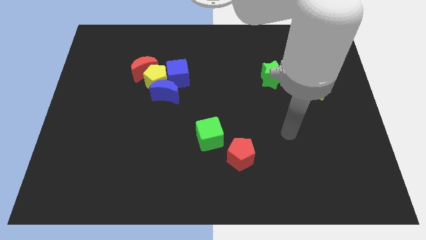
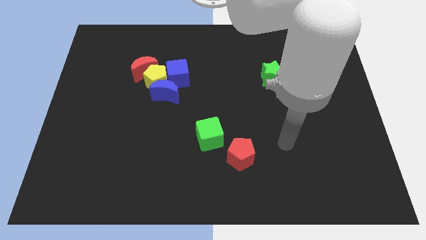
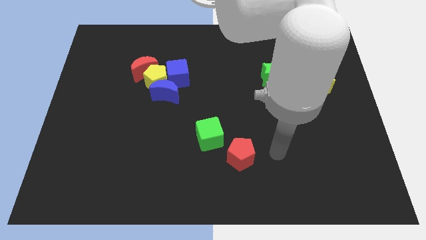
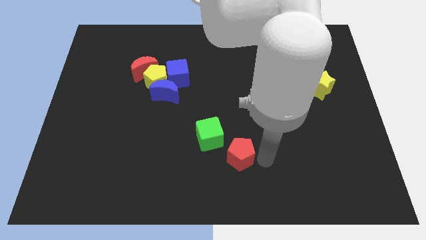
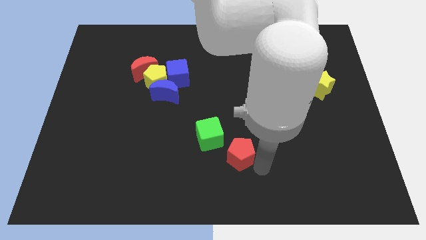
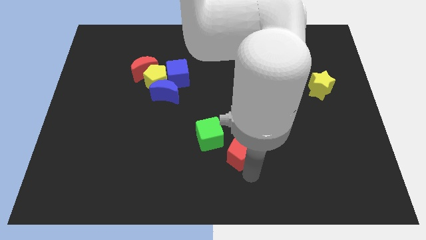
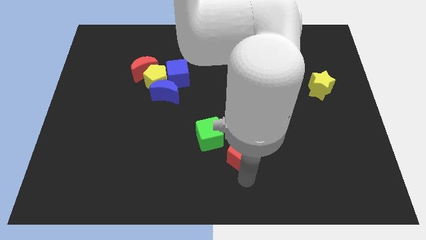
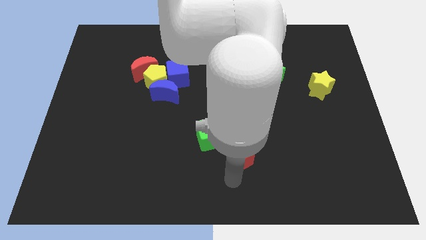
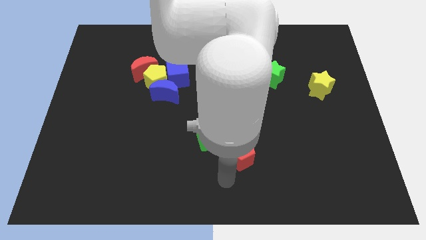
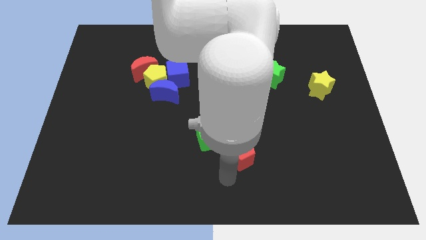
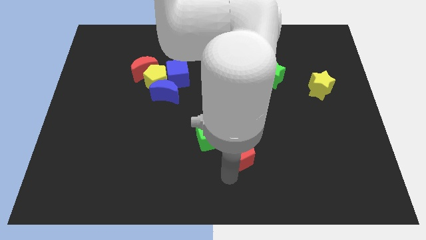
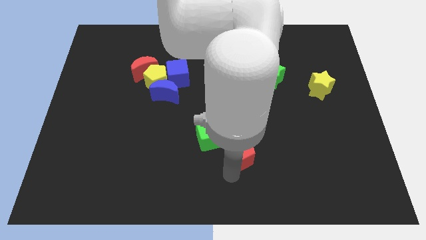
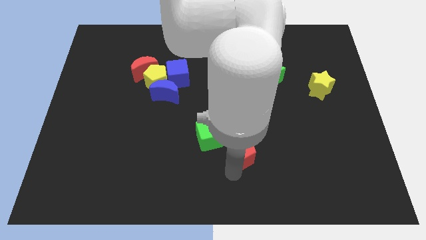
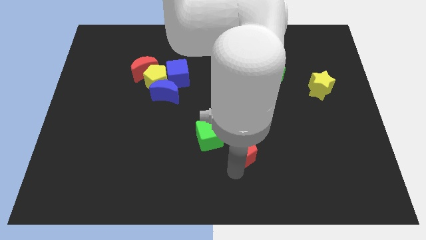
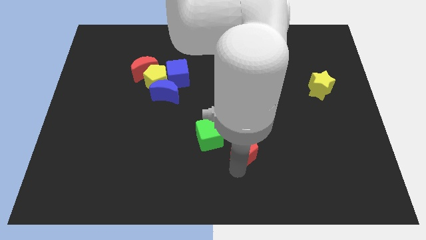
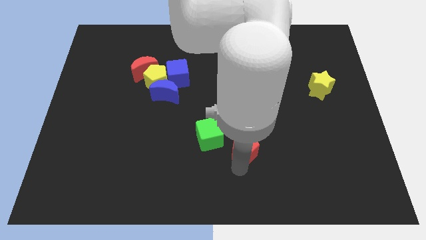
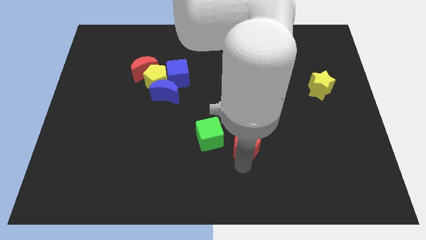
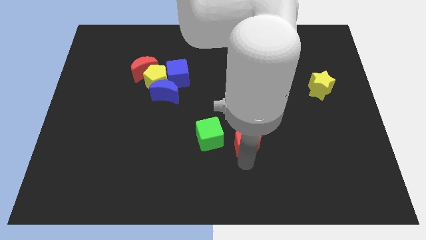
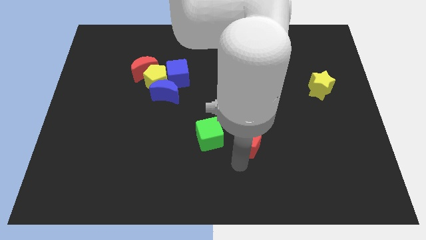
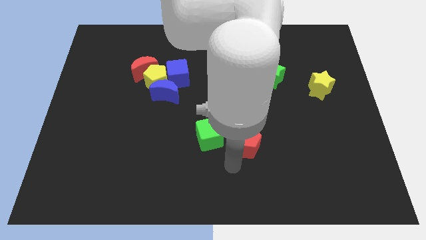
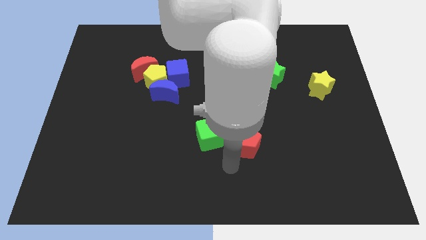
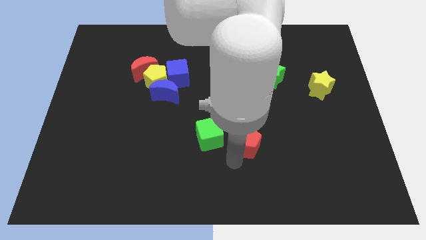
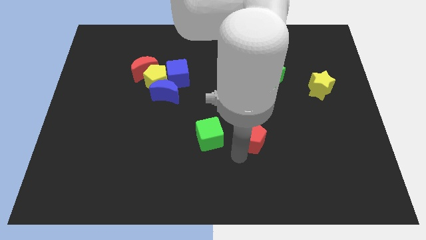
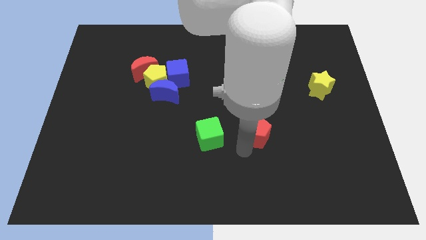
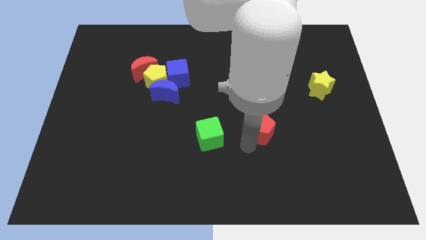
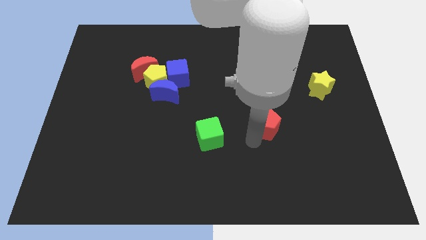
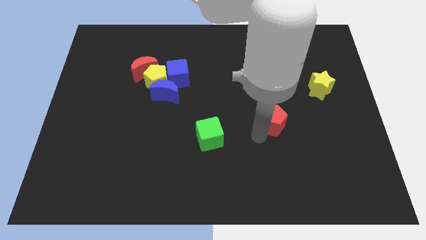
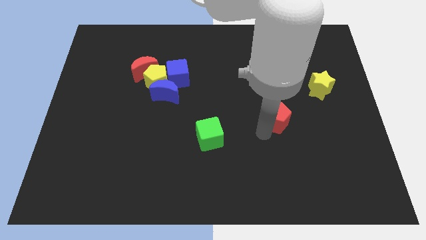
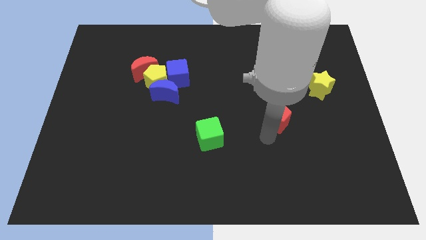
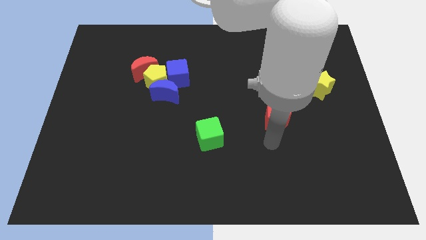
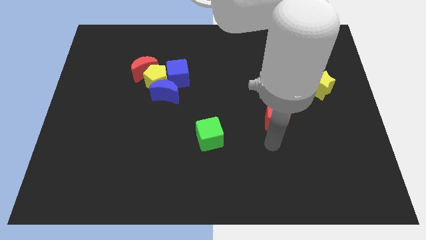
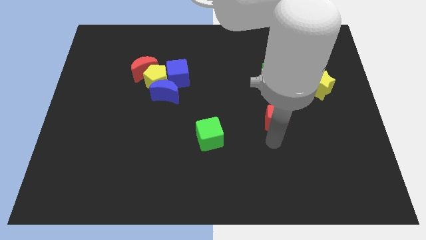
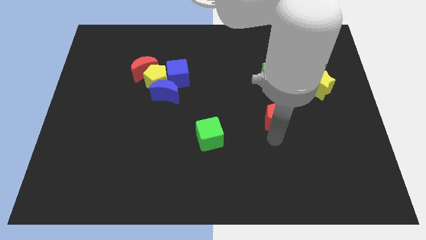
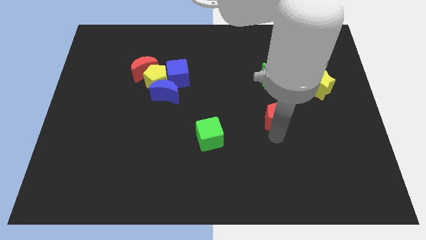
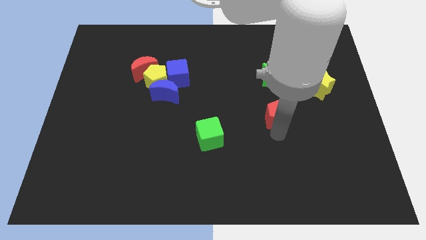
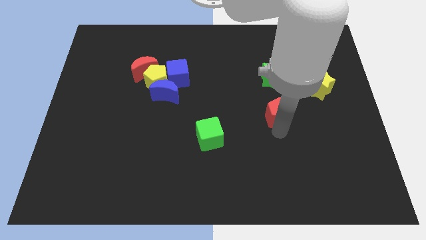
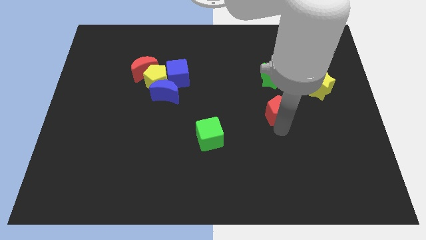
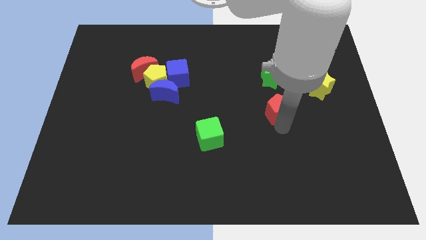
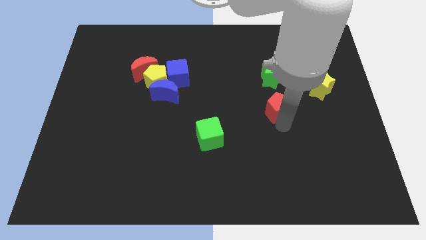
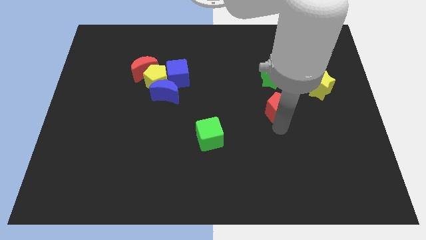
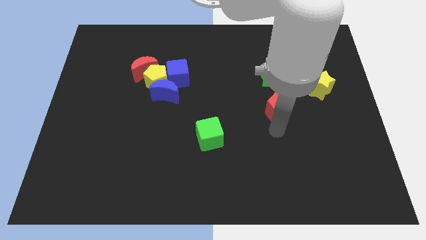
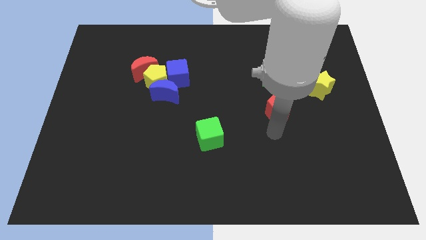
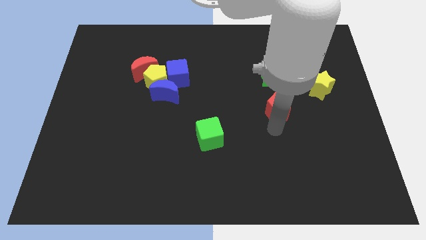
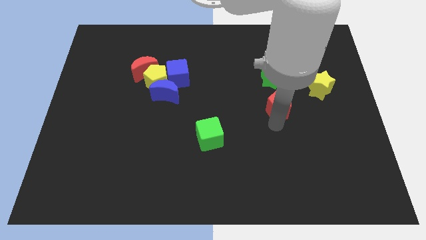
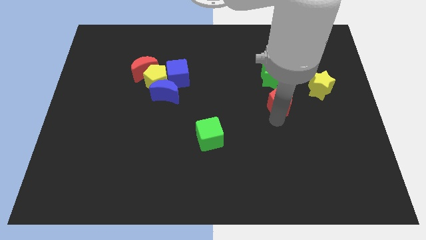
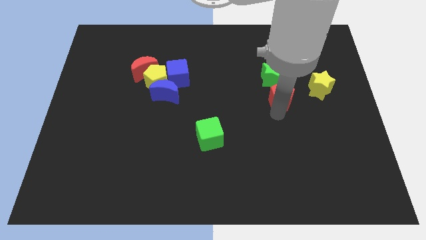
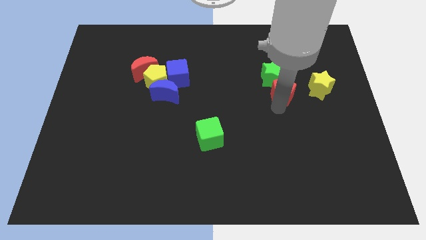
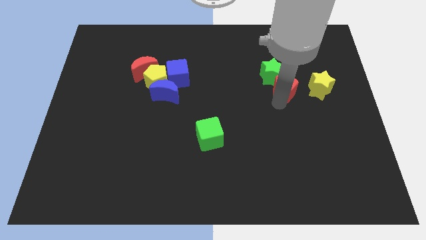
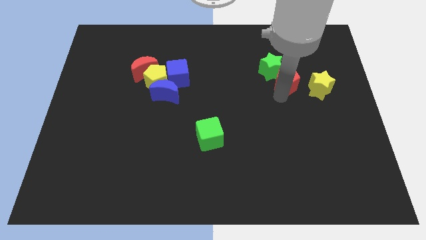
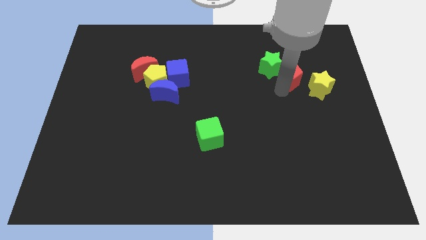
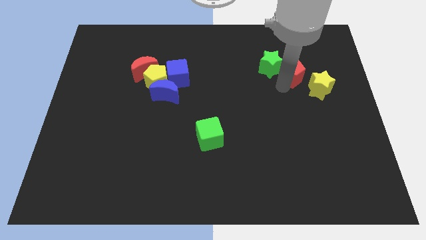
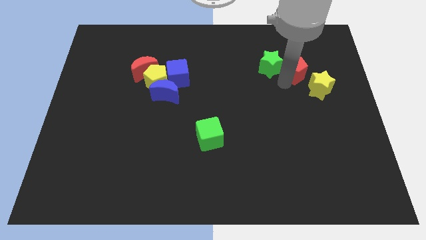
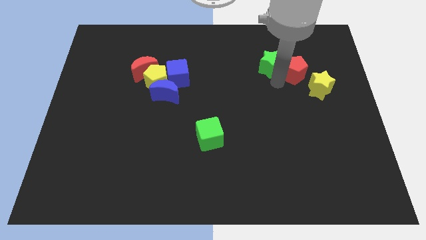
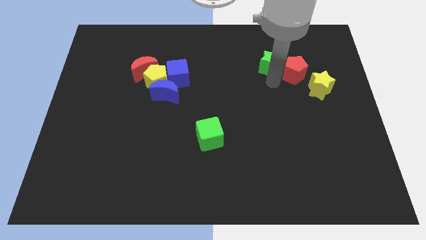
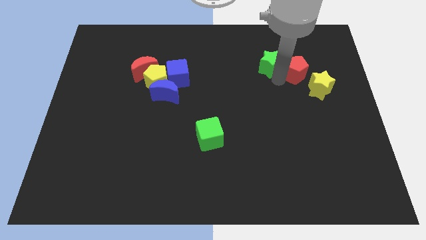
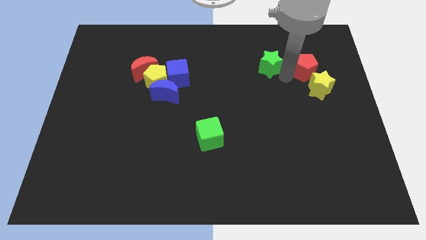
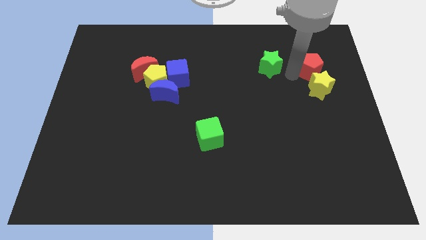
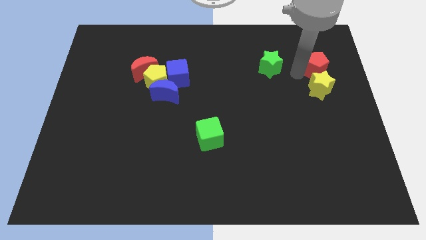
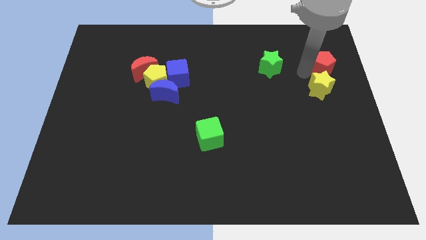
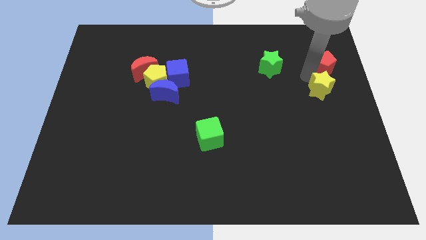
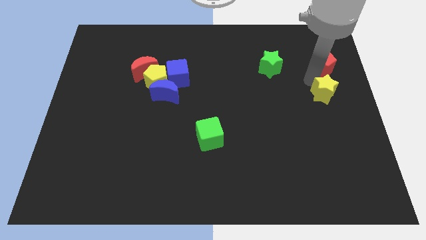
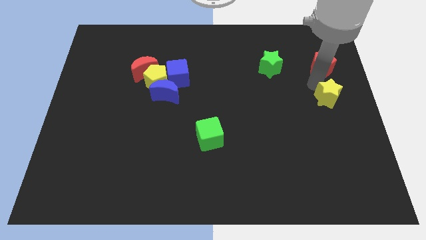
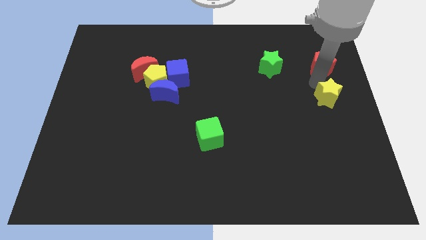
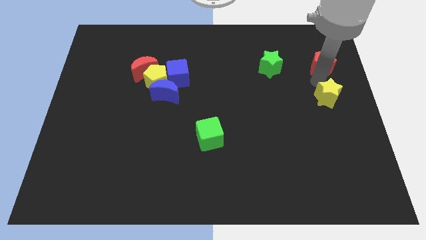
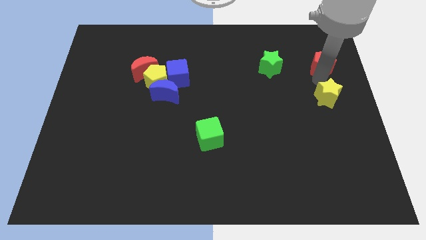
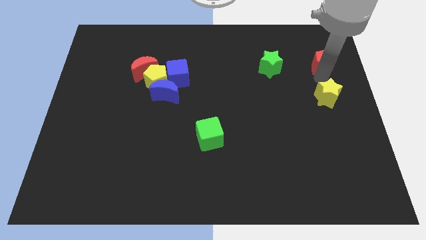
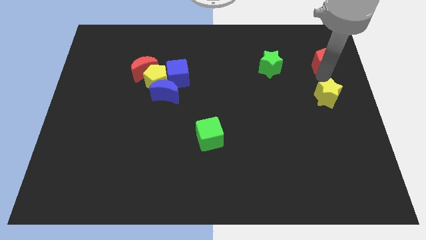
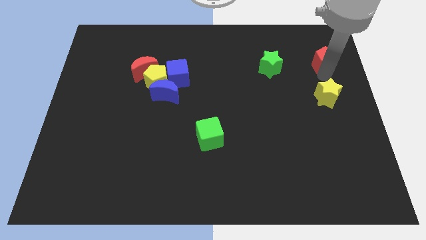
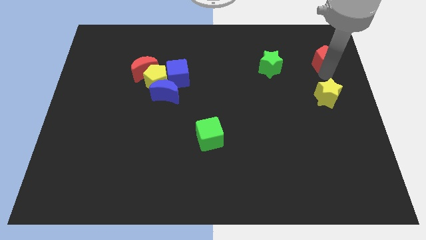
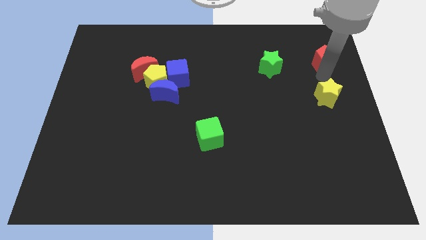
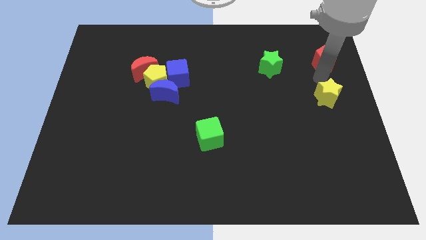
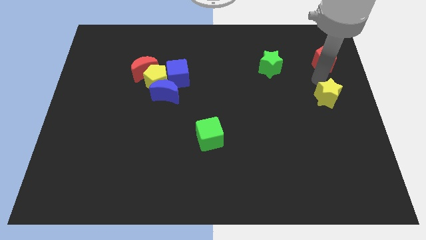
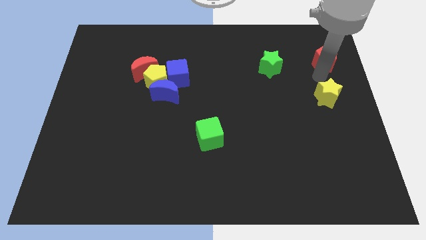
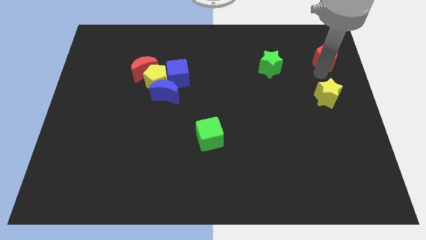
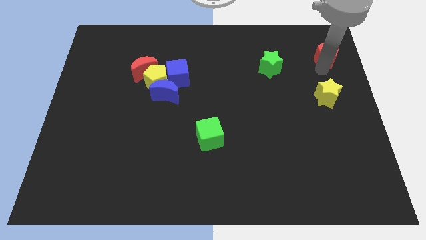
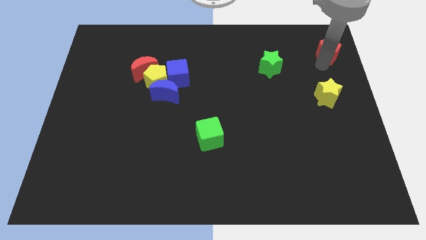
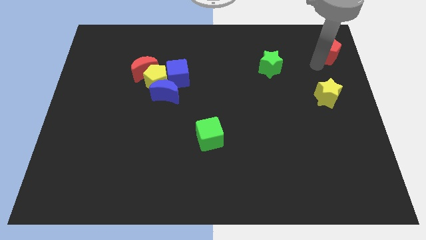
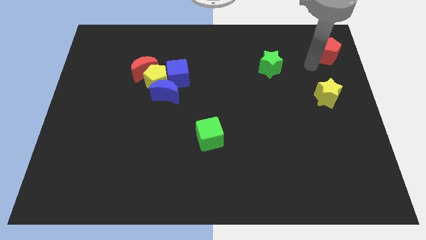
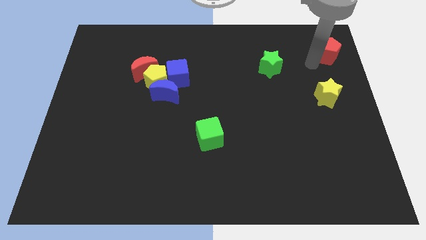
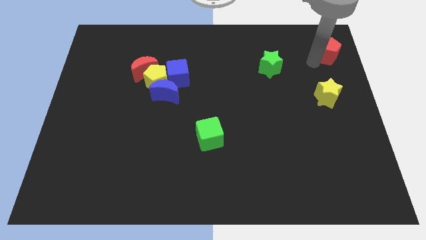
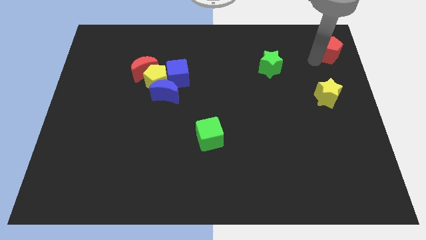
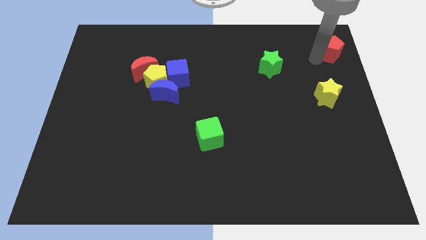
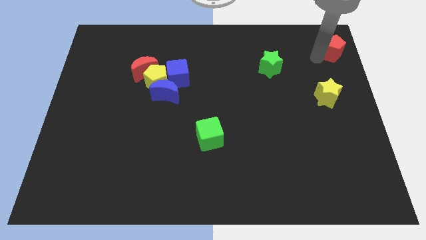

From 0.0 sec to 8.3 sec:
put the red pentagon to the top right
